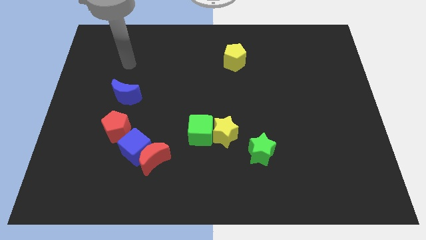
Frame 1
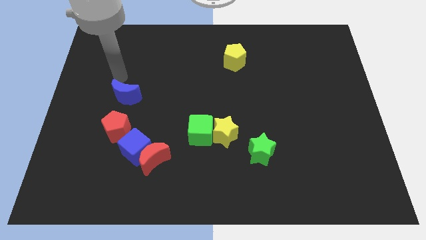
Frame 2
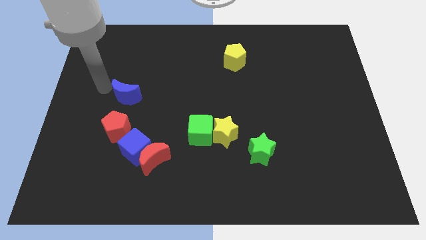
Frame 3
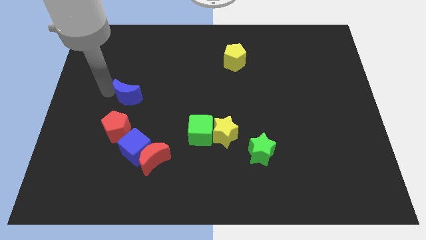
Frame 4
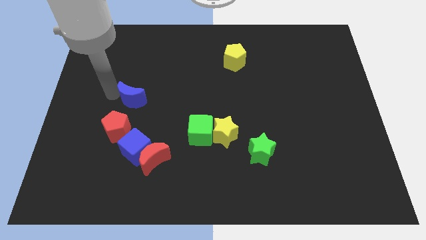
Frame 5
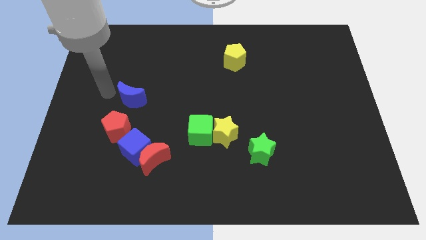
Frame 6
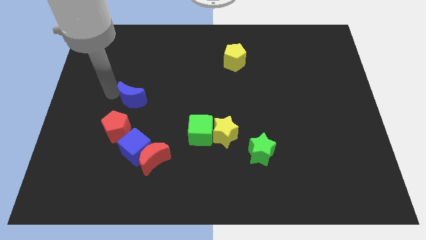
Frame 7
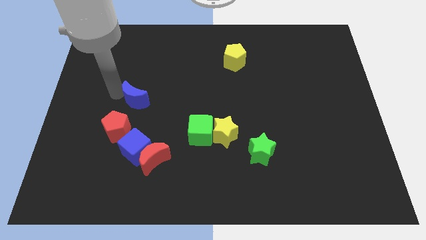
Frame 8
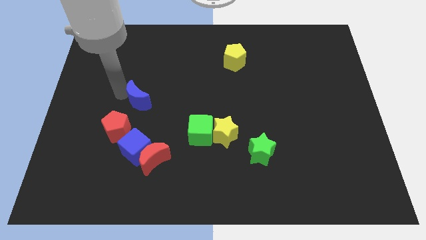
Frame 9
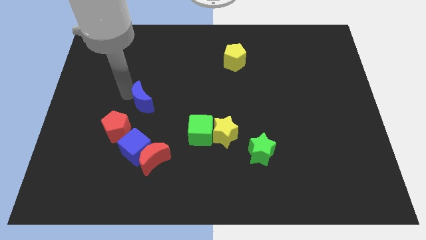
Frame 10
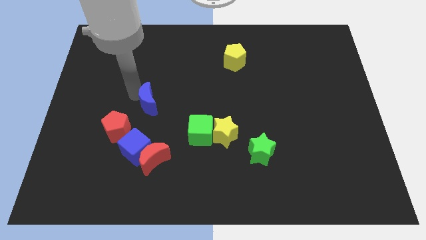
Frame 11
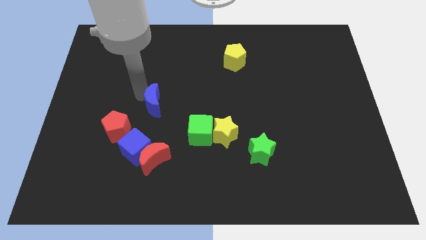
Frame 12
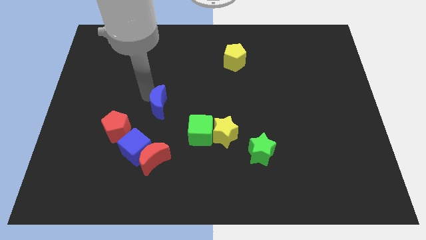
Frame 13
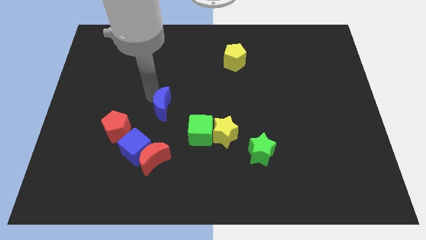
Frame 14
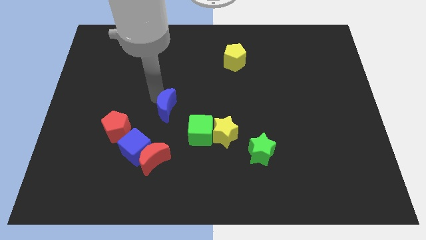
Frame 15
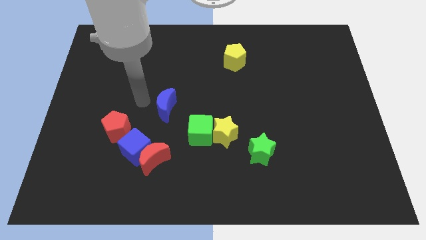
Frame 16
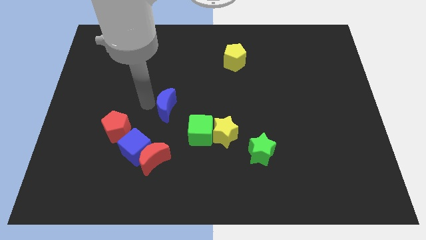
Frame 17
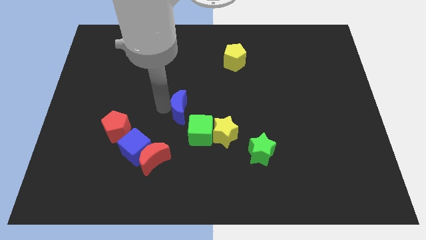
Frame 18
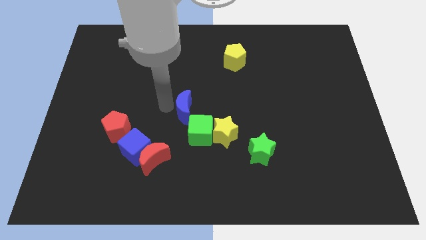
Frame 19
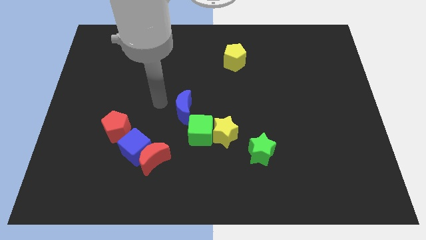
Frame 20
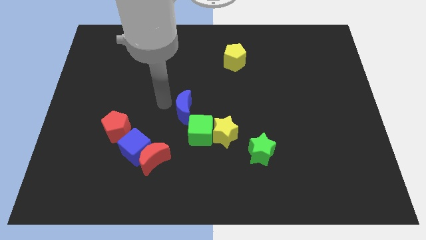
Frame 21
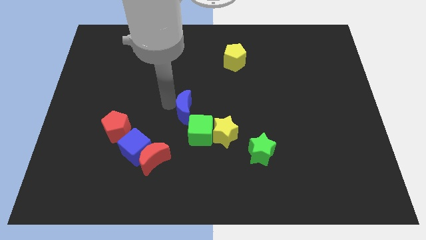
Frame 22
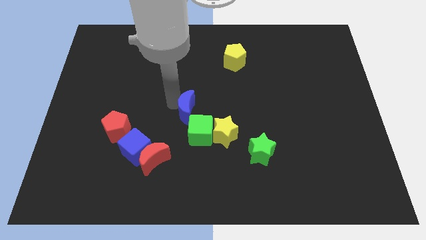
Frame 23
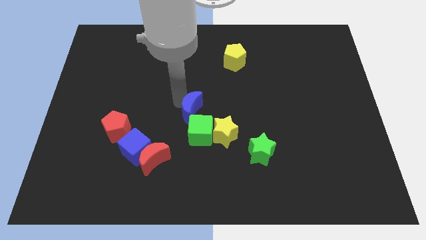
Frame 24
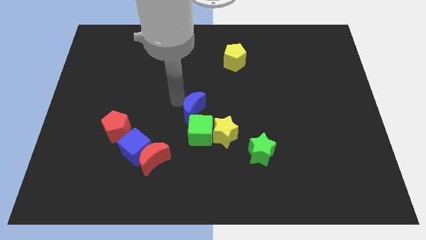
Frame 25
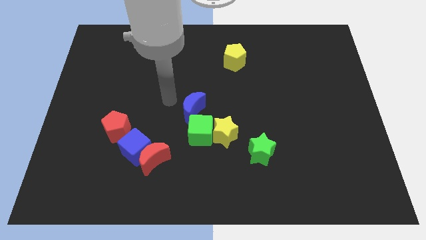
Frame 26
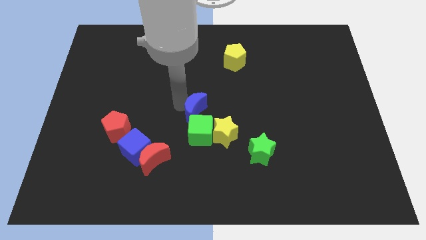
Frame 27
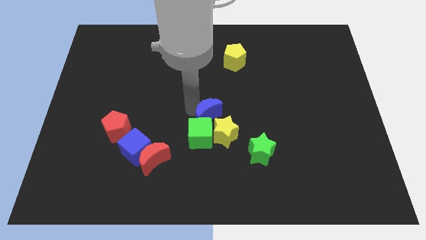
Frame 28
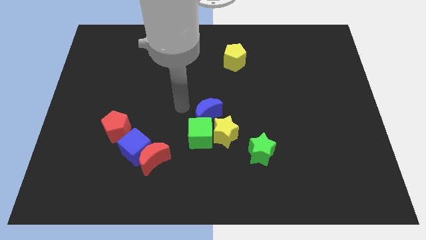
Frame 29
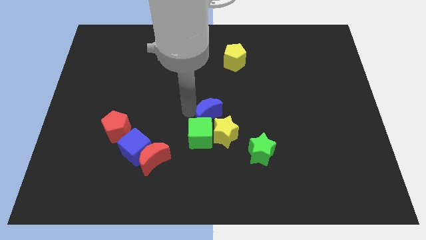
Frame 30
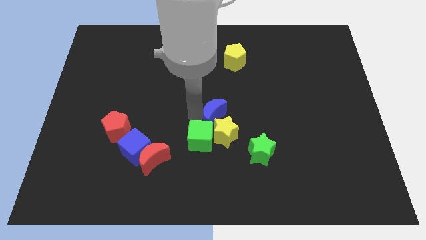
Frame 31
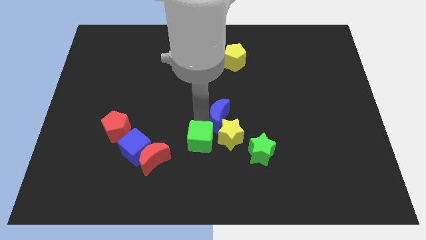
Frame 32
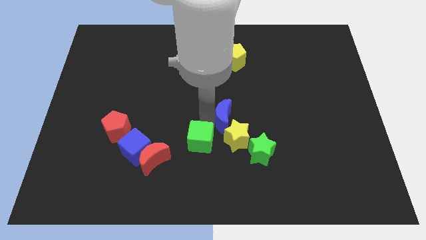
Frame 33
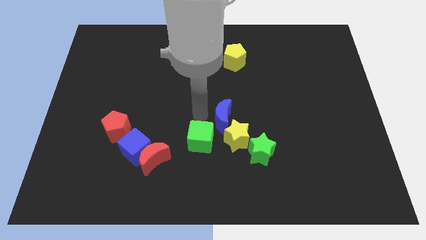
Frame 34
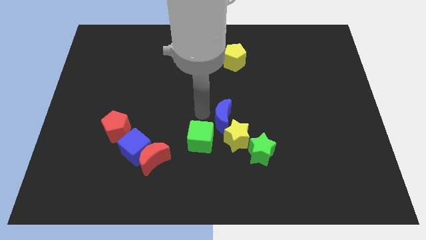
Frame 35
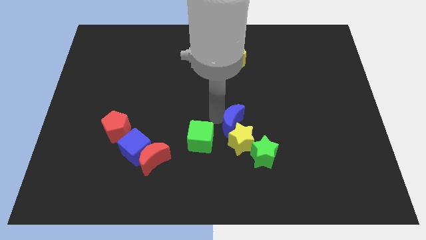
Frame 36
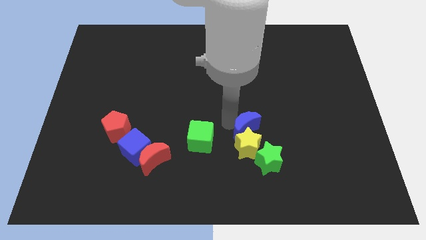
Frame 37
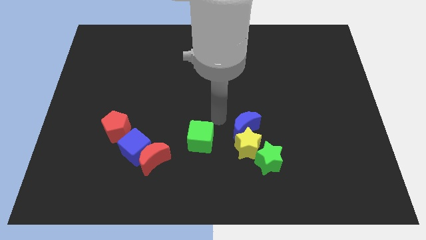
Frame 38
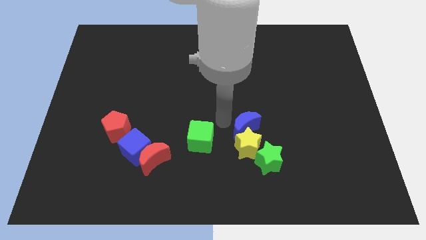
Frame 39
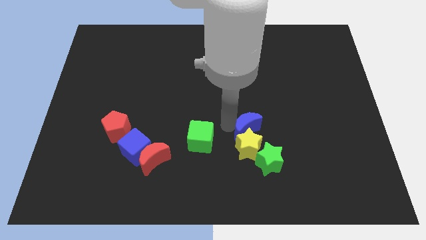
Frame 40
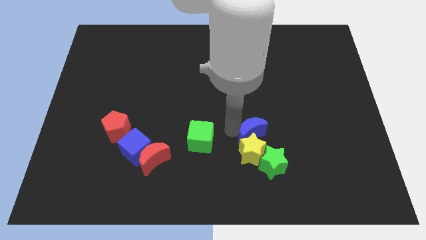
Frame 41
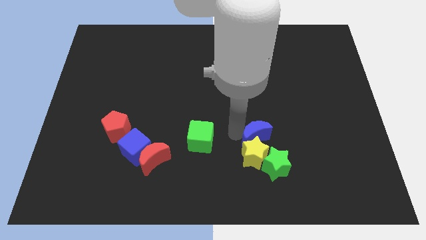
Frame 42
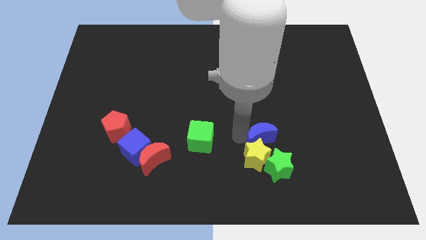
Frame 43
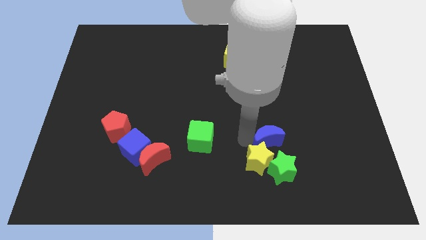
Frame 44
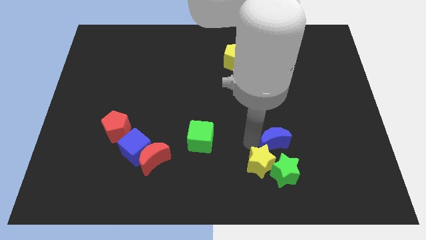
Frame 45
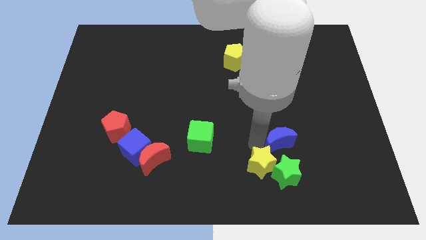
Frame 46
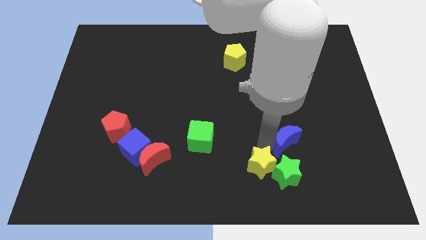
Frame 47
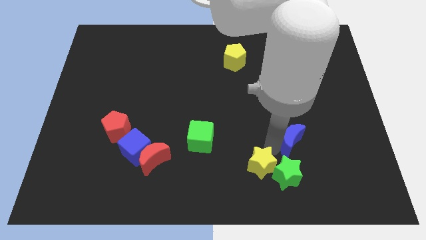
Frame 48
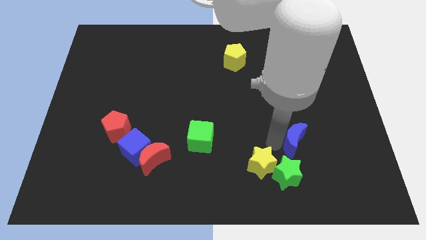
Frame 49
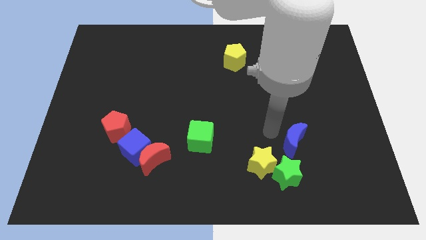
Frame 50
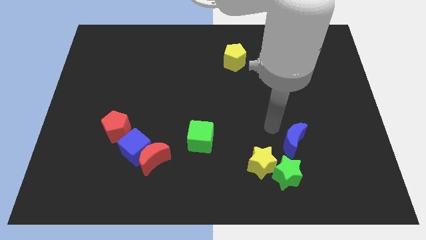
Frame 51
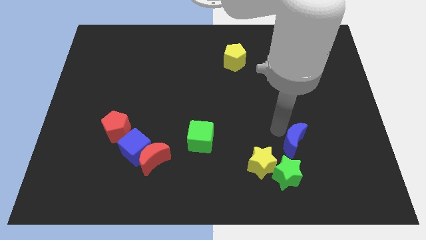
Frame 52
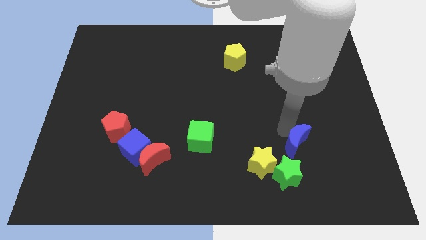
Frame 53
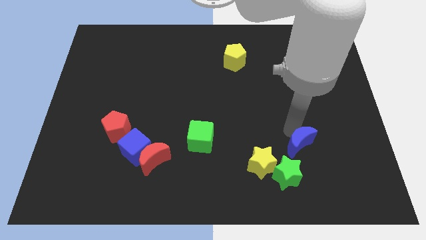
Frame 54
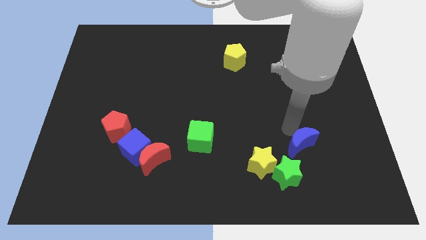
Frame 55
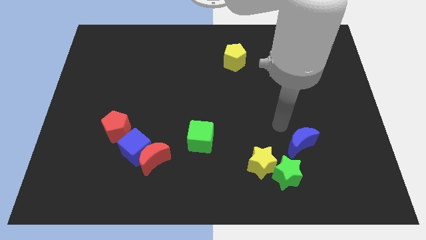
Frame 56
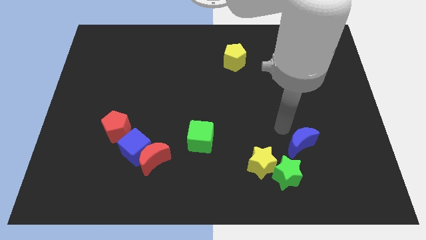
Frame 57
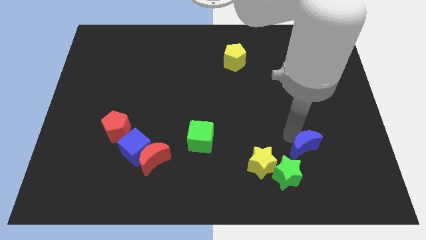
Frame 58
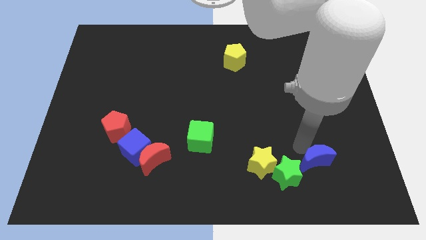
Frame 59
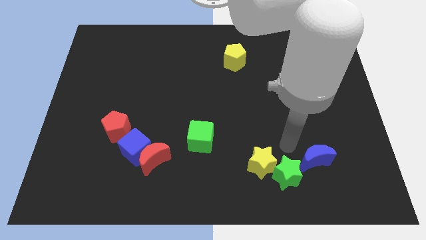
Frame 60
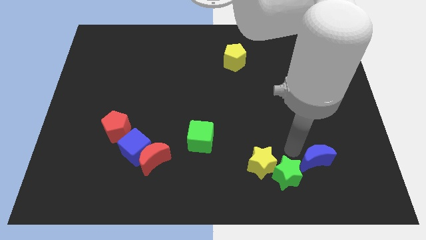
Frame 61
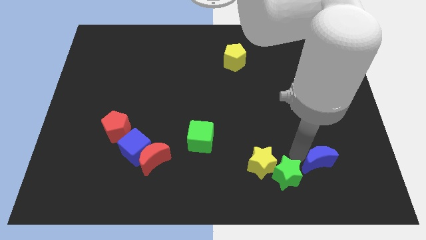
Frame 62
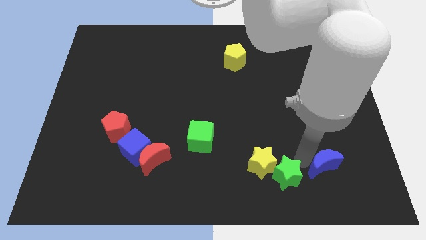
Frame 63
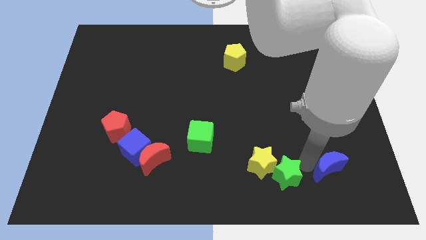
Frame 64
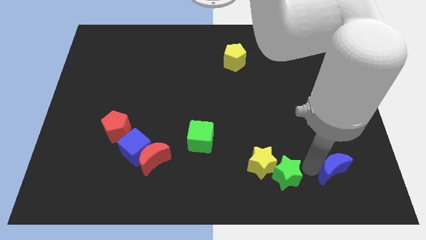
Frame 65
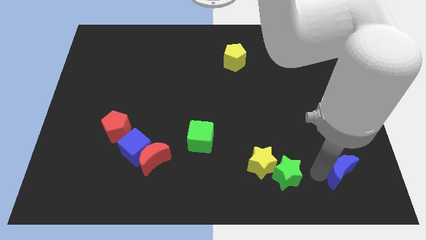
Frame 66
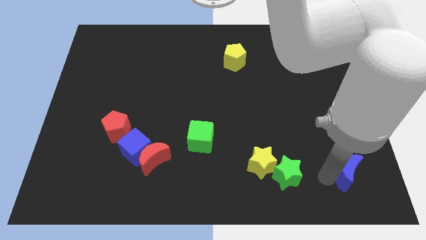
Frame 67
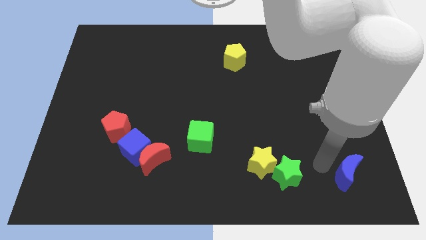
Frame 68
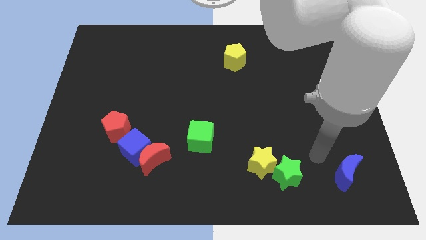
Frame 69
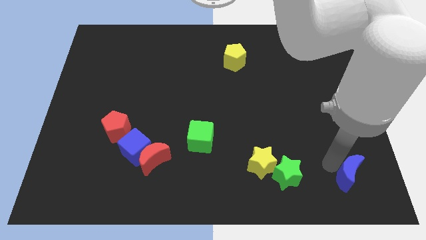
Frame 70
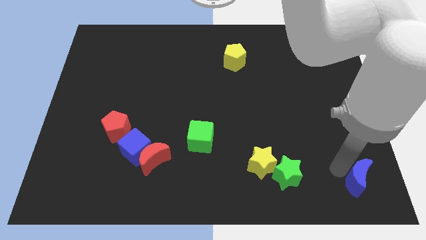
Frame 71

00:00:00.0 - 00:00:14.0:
move the blue moon to the bottom right
